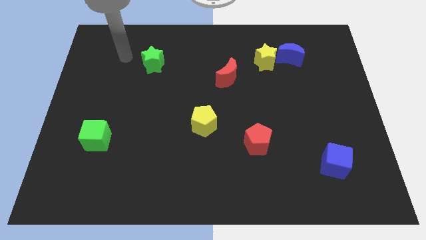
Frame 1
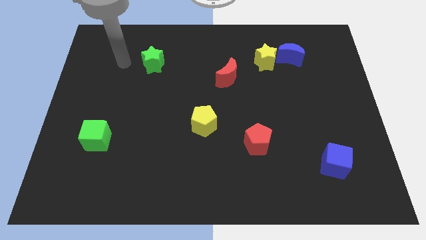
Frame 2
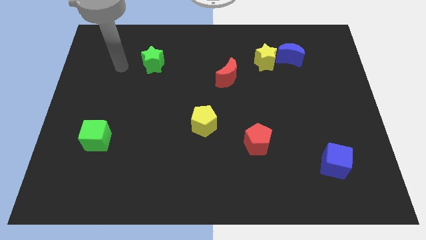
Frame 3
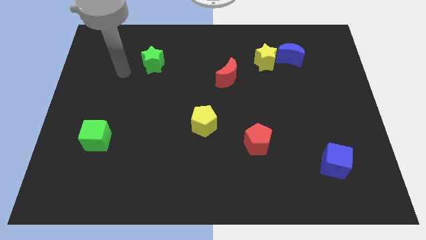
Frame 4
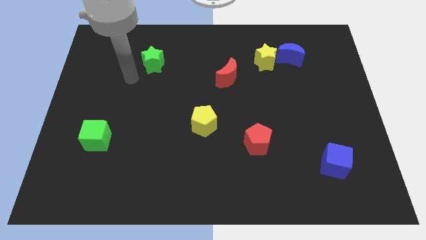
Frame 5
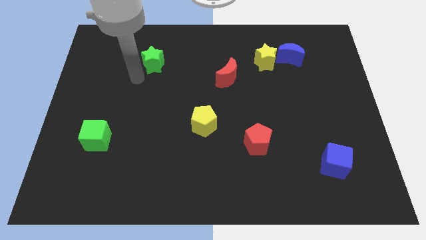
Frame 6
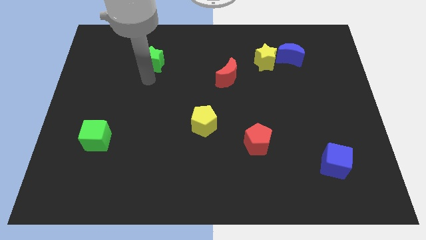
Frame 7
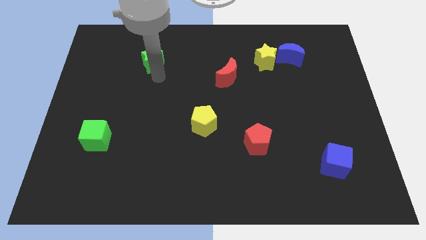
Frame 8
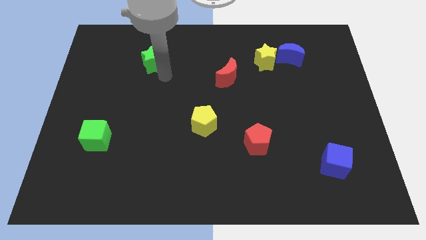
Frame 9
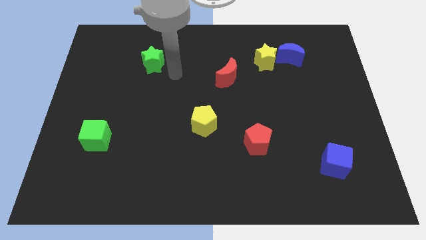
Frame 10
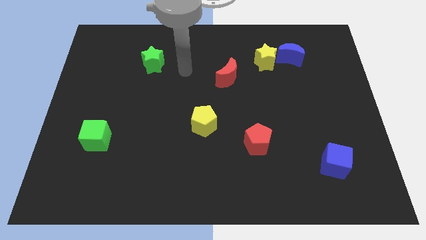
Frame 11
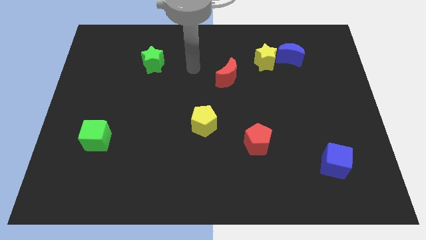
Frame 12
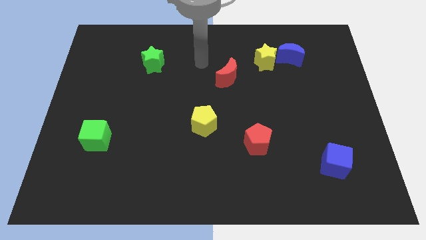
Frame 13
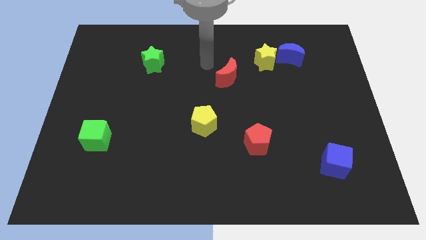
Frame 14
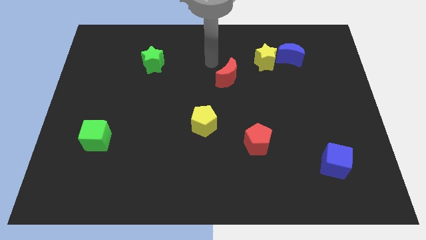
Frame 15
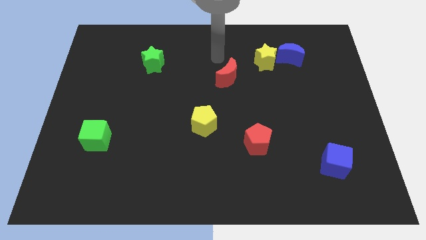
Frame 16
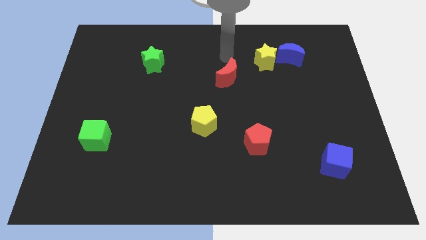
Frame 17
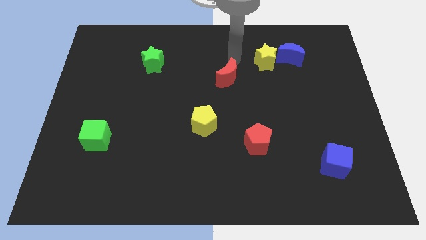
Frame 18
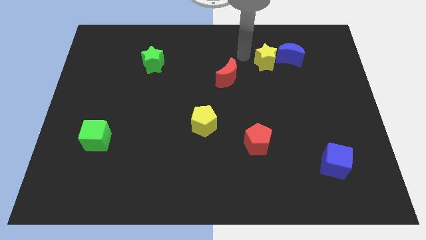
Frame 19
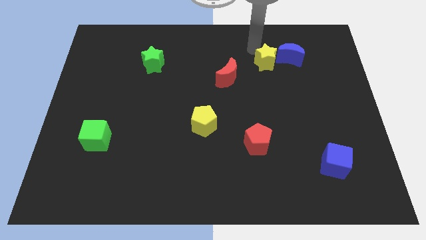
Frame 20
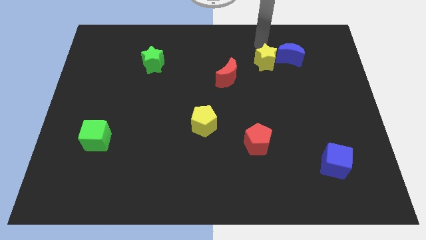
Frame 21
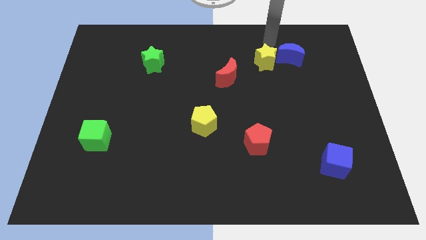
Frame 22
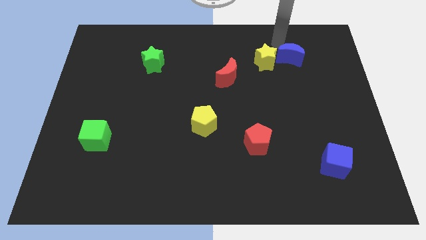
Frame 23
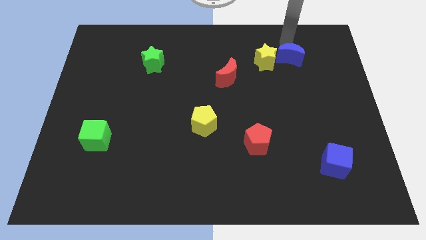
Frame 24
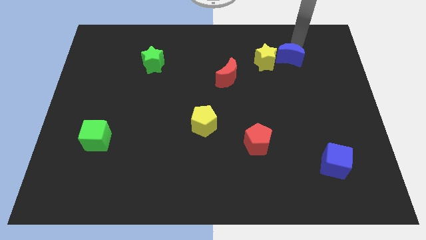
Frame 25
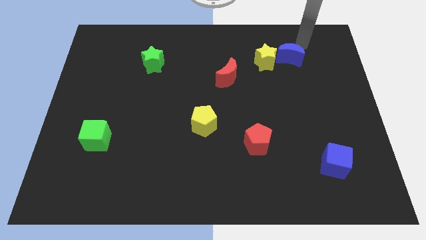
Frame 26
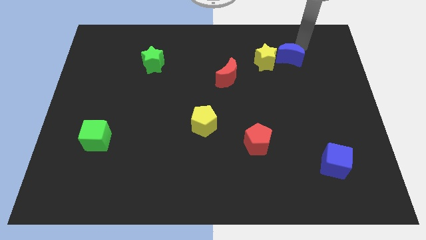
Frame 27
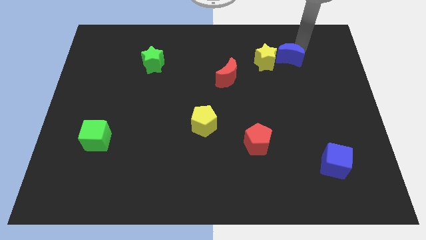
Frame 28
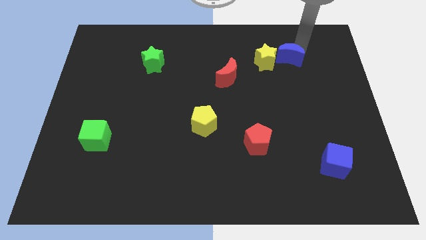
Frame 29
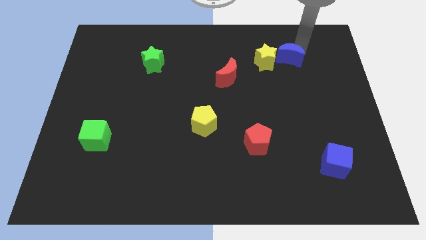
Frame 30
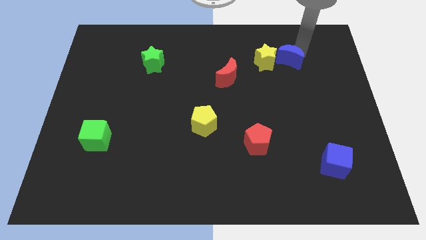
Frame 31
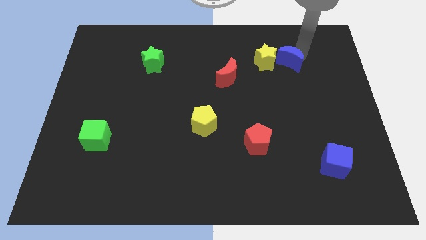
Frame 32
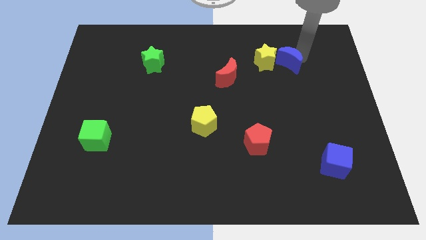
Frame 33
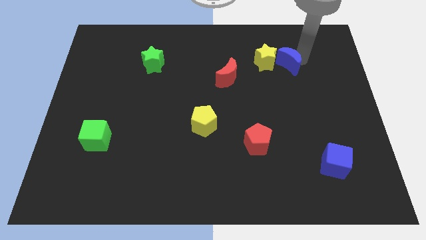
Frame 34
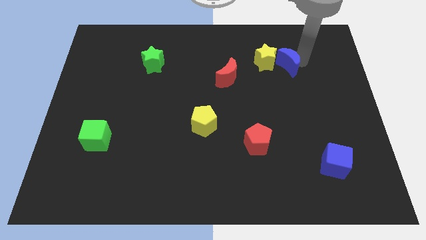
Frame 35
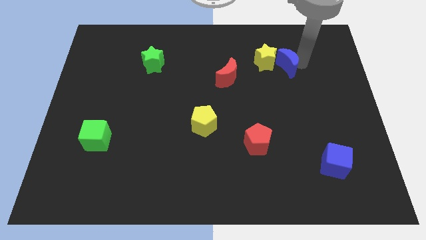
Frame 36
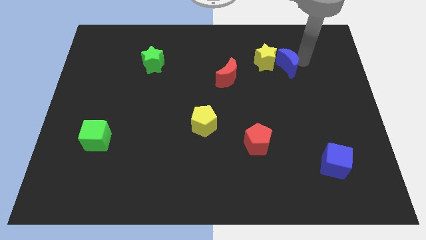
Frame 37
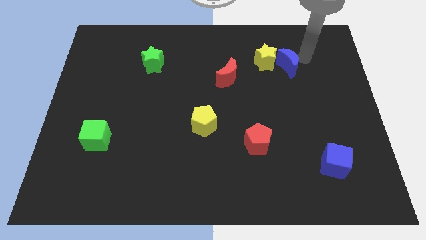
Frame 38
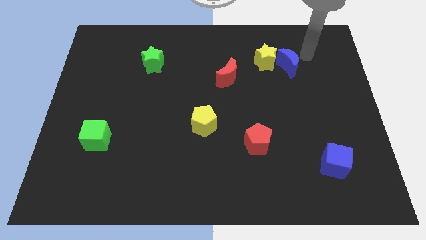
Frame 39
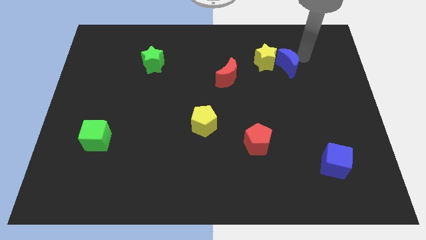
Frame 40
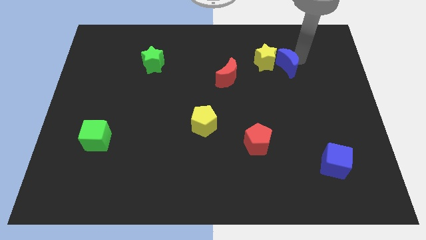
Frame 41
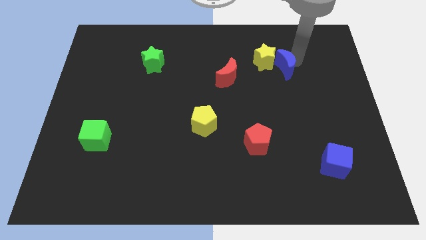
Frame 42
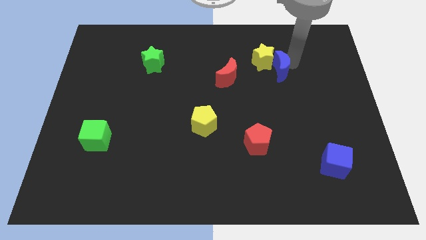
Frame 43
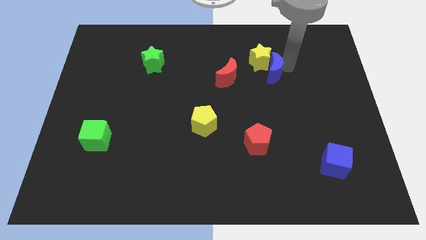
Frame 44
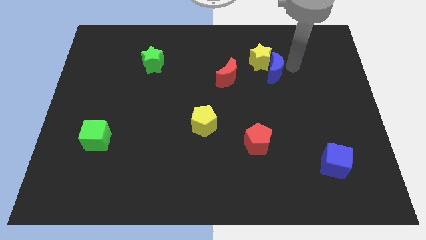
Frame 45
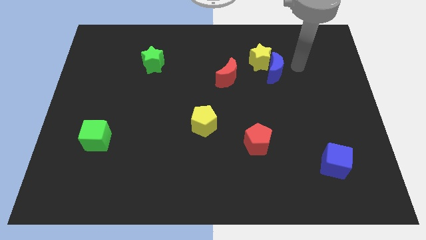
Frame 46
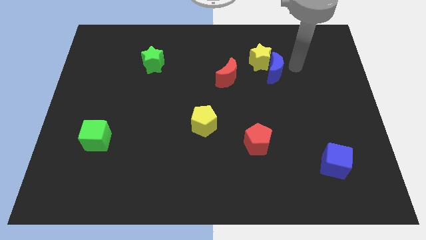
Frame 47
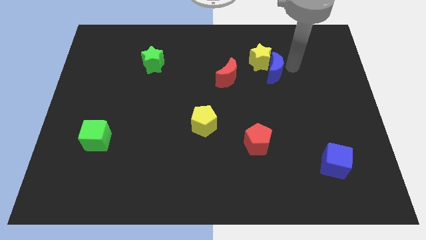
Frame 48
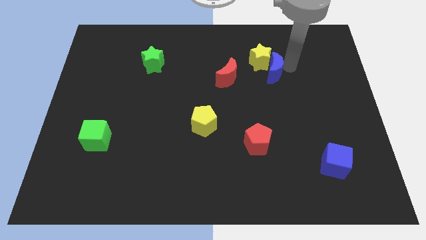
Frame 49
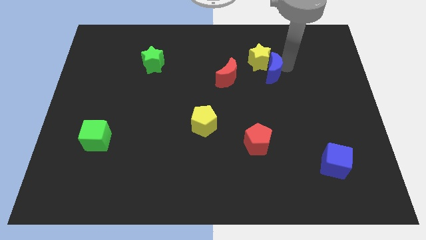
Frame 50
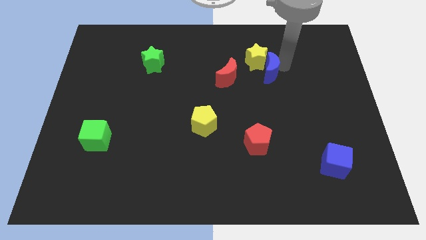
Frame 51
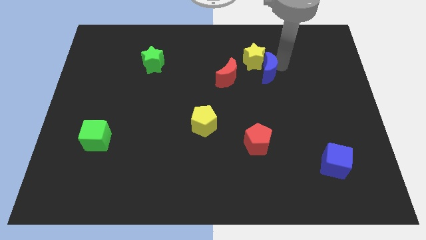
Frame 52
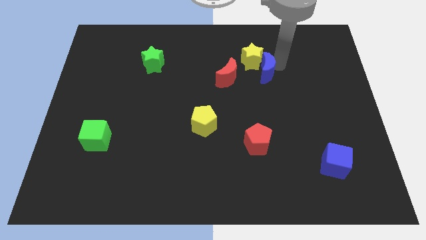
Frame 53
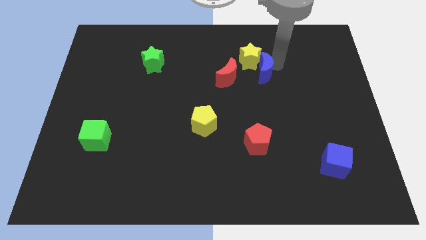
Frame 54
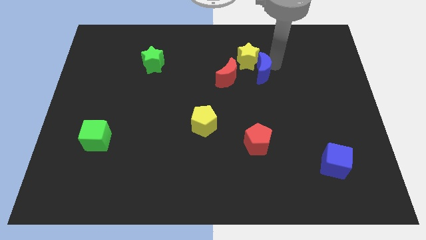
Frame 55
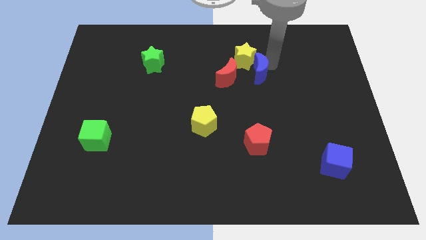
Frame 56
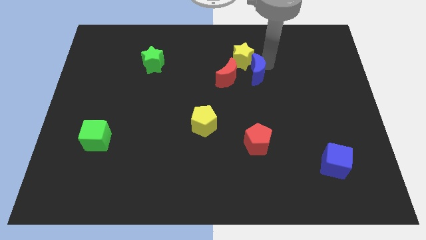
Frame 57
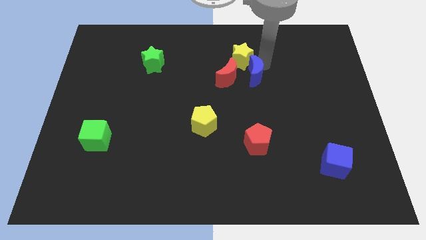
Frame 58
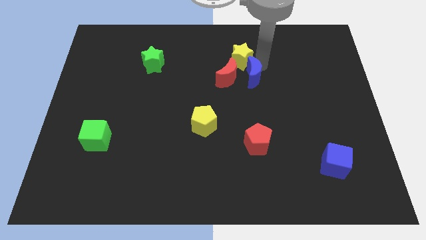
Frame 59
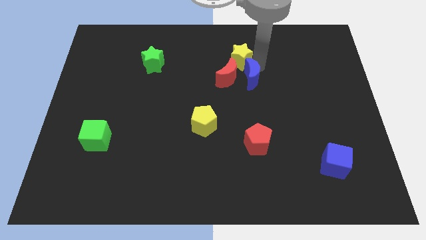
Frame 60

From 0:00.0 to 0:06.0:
put the blue moon close to the red moon

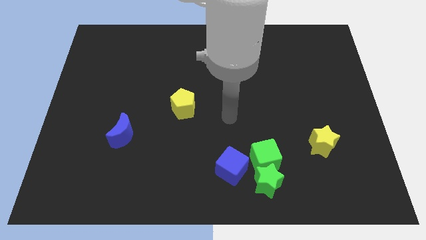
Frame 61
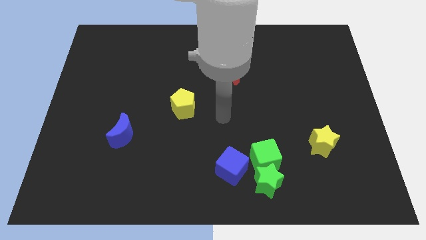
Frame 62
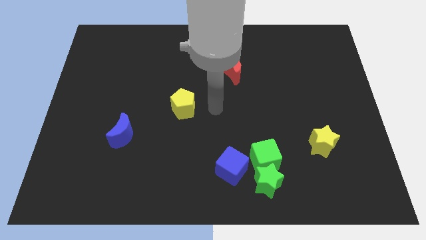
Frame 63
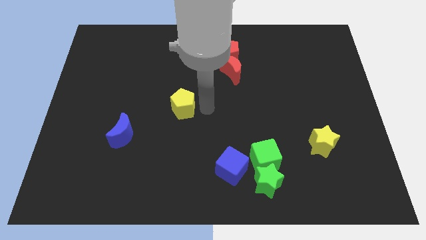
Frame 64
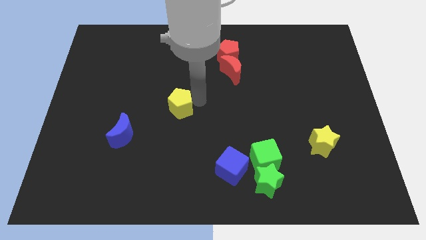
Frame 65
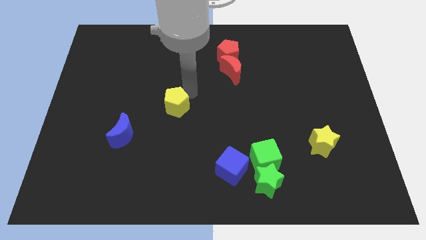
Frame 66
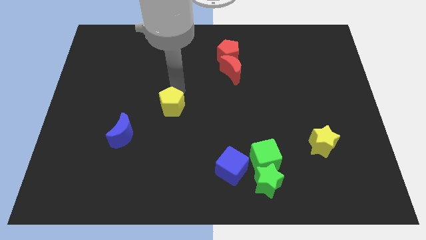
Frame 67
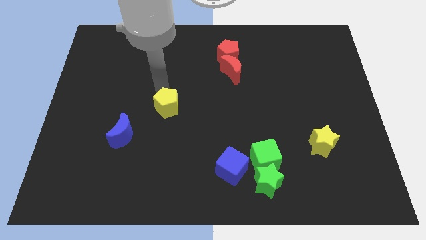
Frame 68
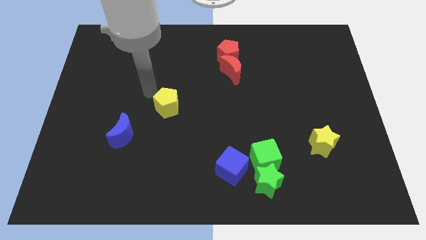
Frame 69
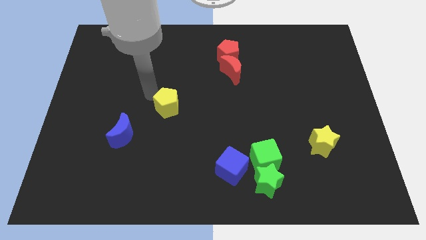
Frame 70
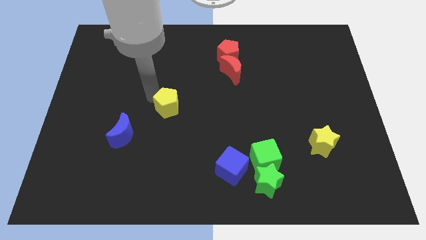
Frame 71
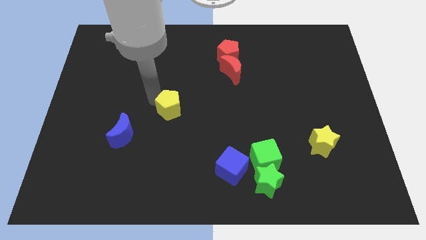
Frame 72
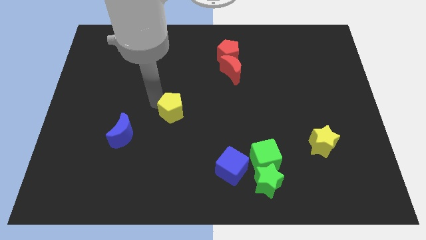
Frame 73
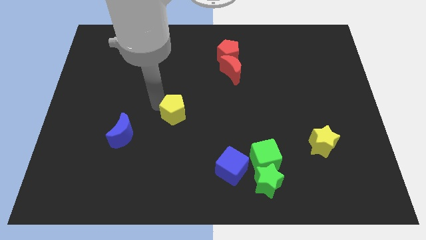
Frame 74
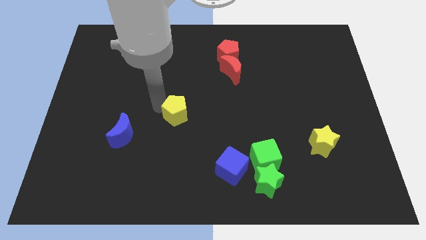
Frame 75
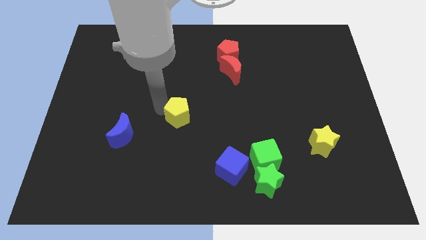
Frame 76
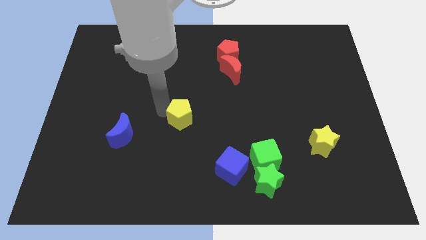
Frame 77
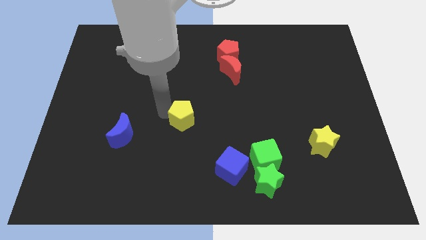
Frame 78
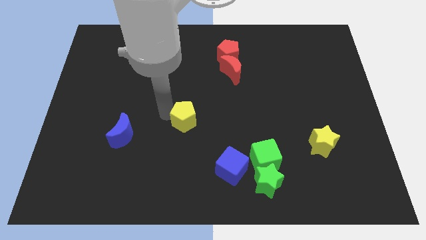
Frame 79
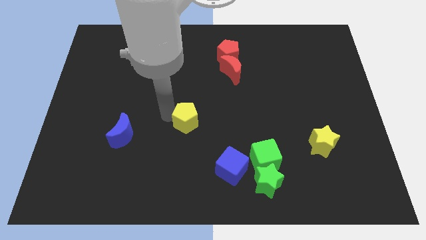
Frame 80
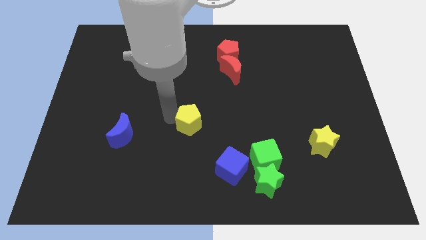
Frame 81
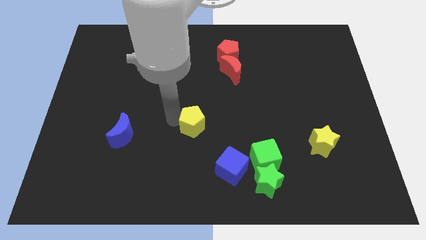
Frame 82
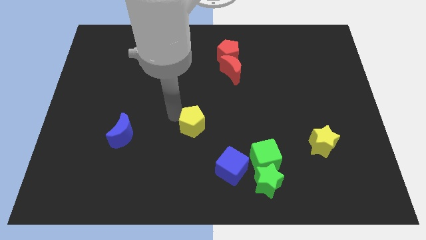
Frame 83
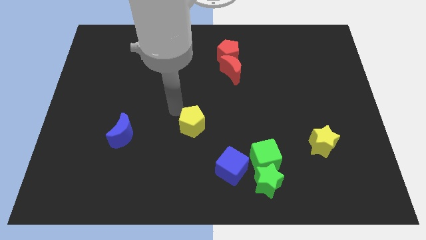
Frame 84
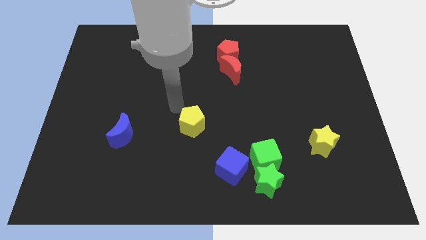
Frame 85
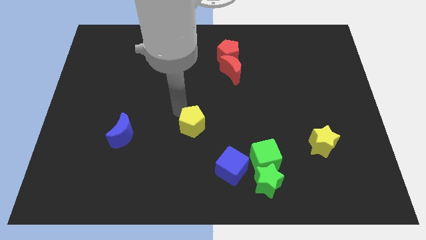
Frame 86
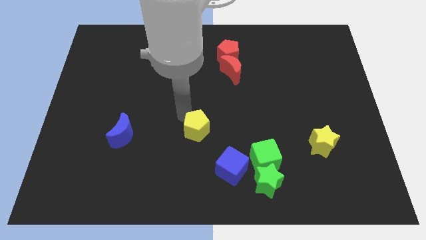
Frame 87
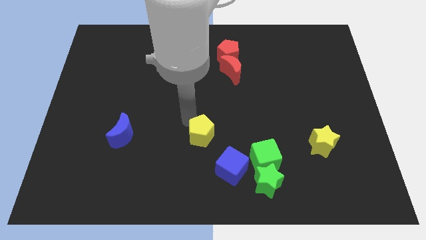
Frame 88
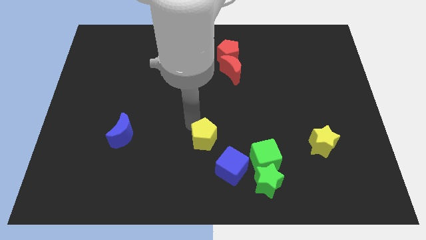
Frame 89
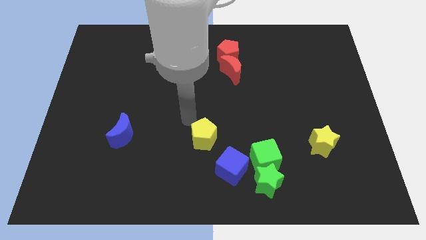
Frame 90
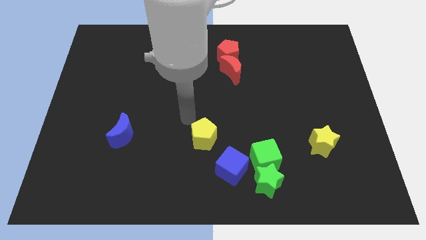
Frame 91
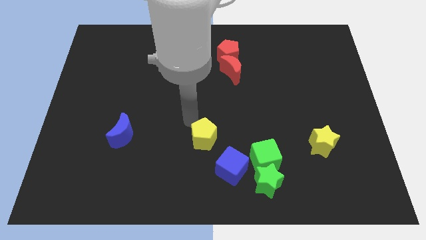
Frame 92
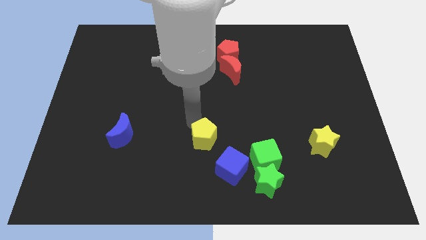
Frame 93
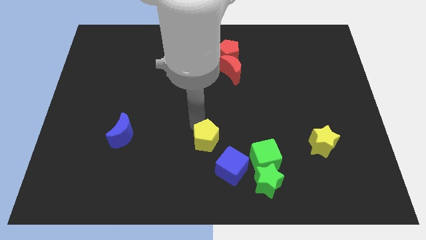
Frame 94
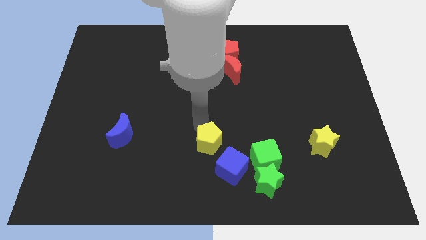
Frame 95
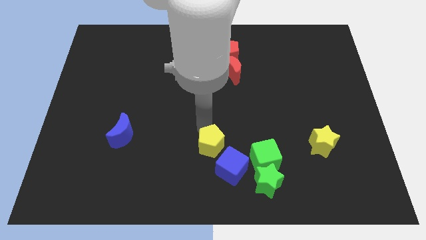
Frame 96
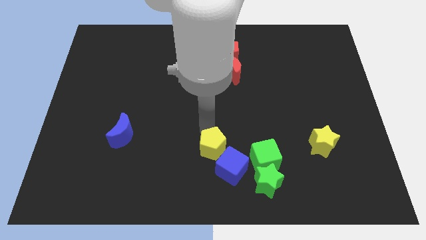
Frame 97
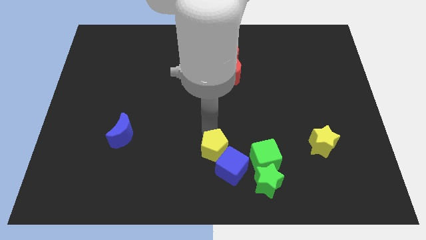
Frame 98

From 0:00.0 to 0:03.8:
put the yellow pentagon towards the blue cube
